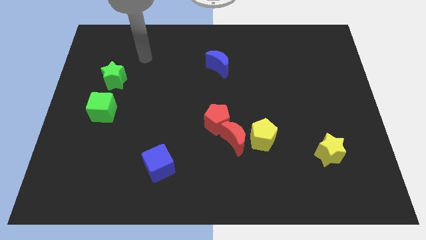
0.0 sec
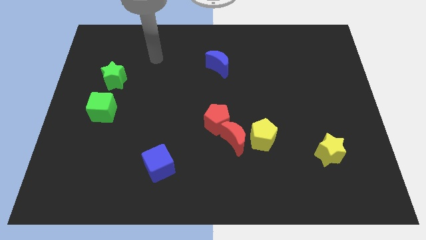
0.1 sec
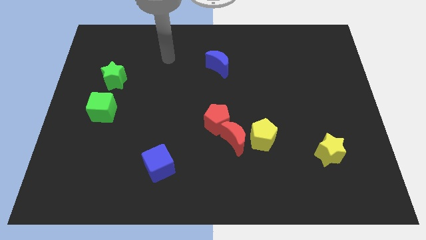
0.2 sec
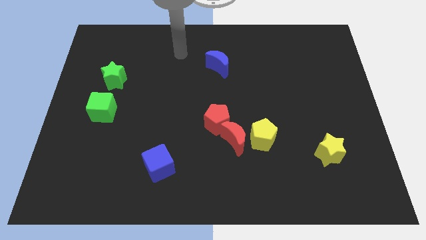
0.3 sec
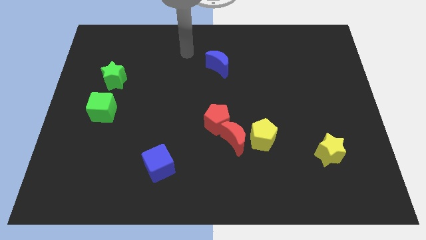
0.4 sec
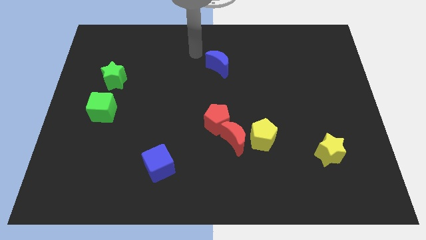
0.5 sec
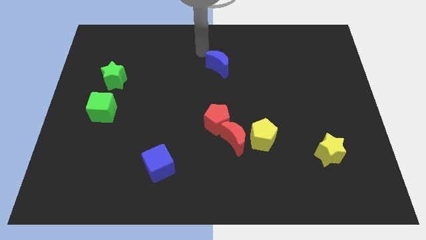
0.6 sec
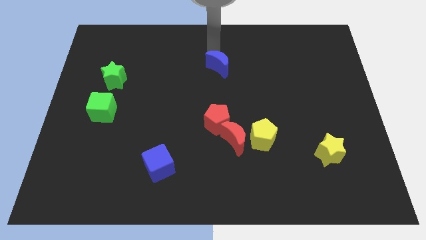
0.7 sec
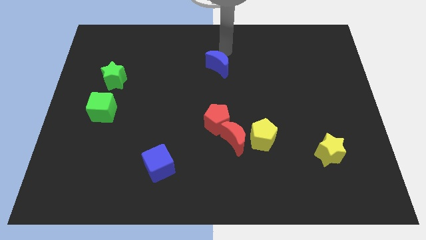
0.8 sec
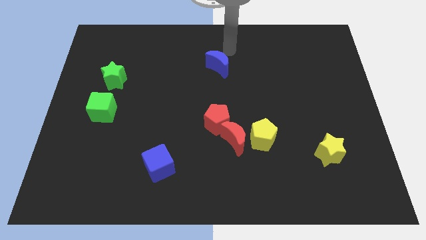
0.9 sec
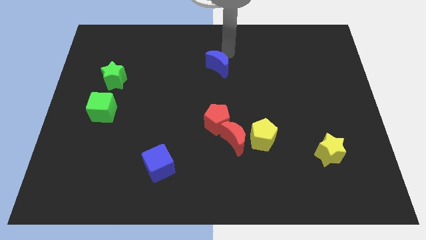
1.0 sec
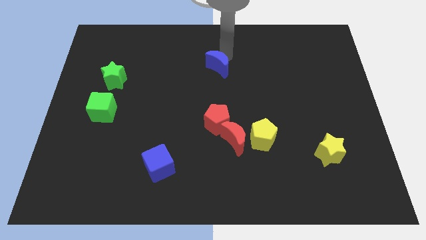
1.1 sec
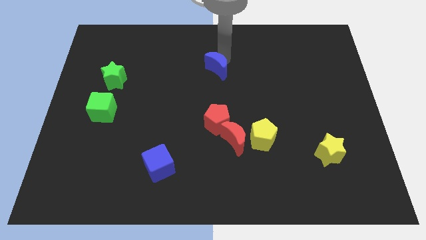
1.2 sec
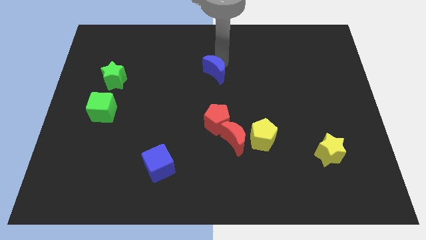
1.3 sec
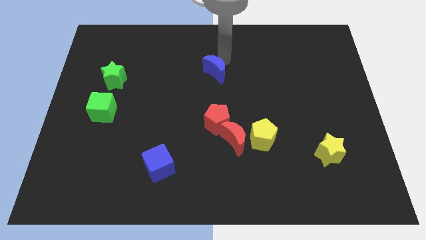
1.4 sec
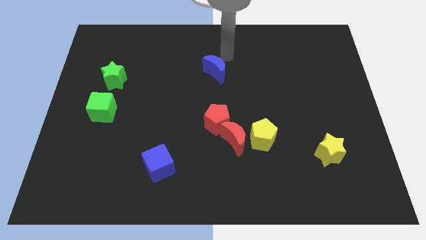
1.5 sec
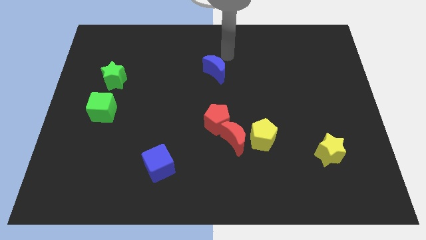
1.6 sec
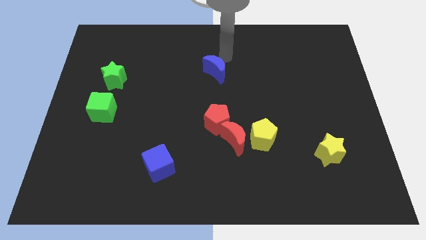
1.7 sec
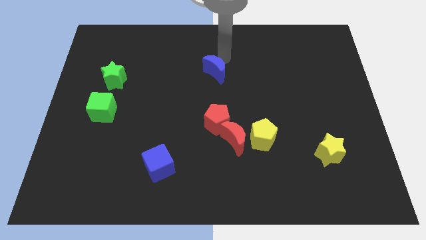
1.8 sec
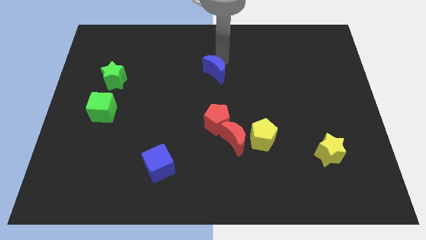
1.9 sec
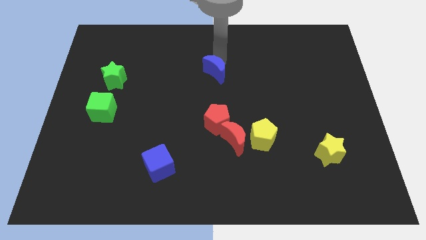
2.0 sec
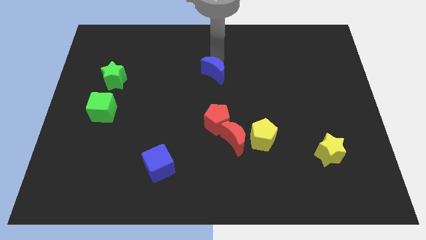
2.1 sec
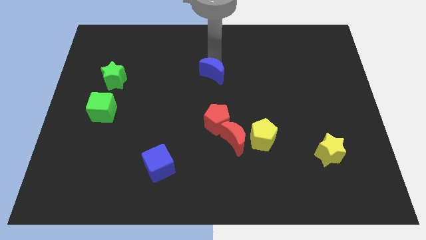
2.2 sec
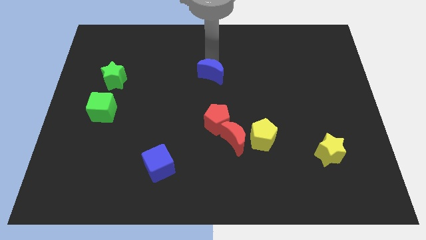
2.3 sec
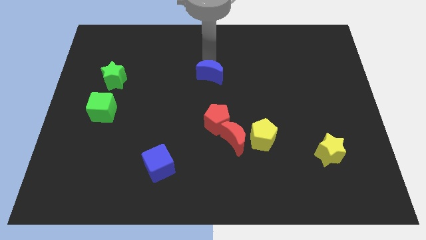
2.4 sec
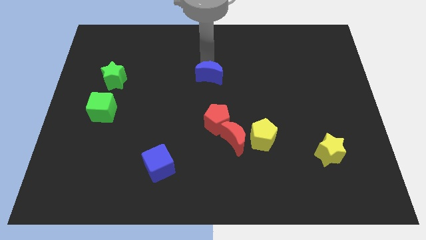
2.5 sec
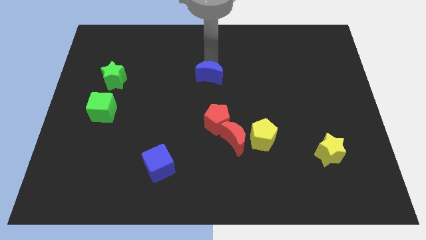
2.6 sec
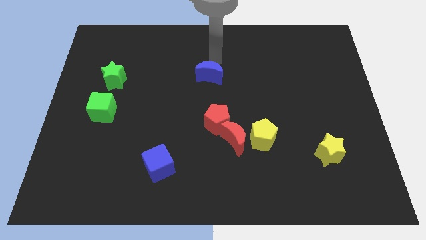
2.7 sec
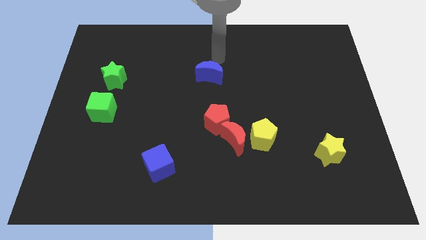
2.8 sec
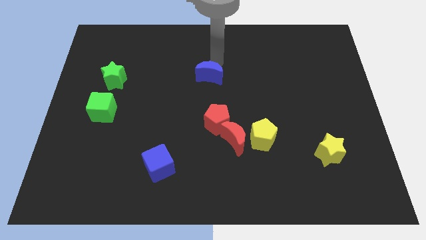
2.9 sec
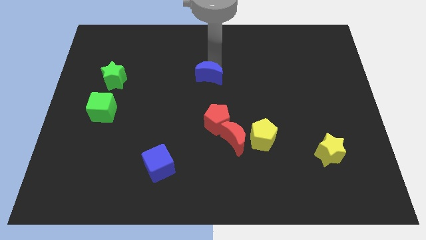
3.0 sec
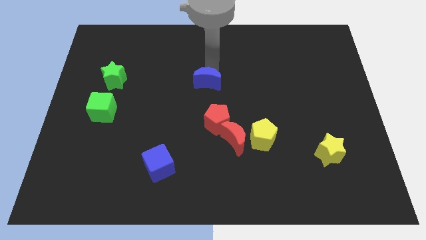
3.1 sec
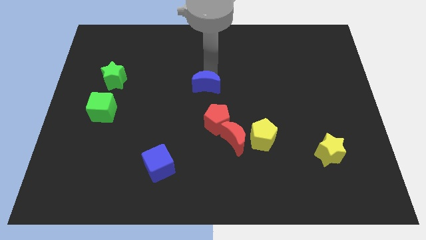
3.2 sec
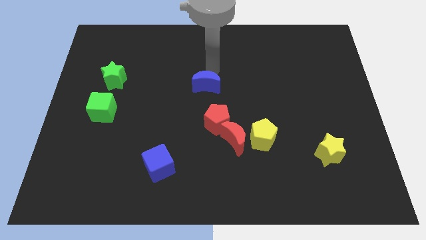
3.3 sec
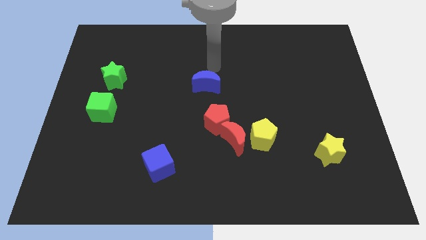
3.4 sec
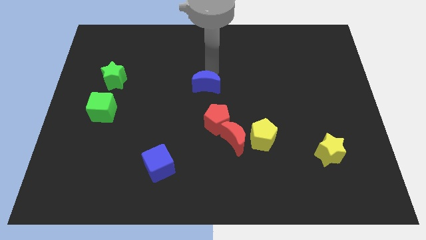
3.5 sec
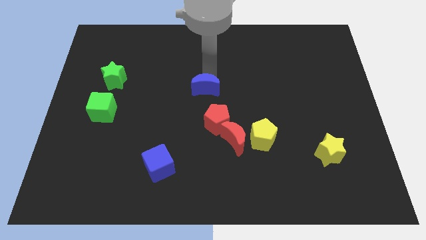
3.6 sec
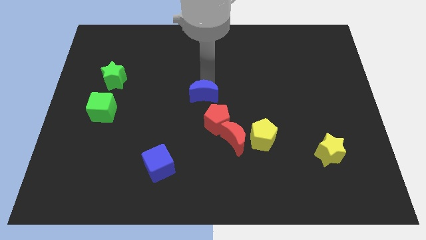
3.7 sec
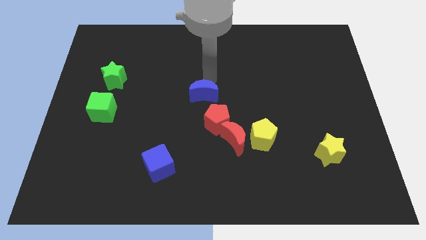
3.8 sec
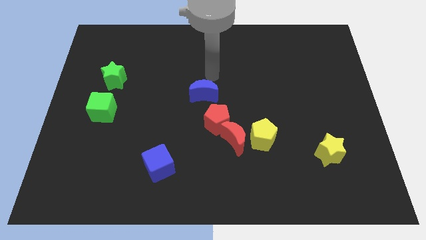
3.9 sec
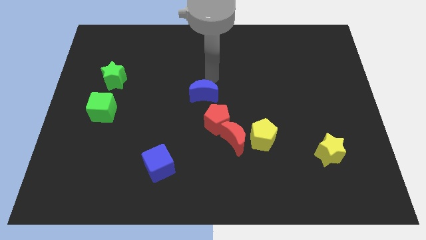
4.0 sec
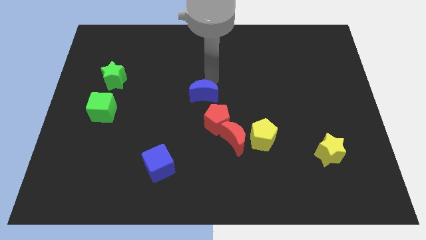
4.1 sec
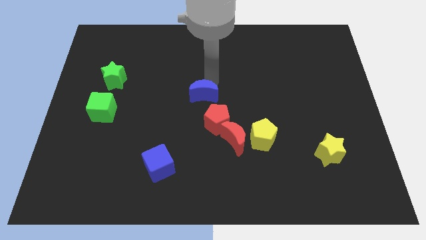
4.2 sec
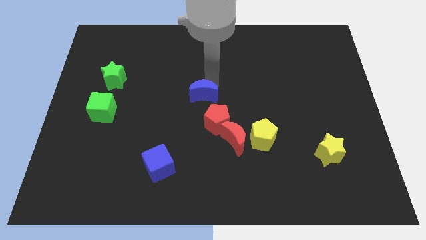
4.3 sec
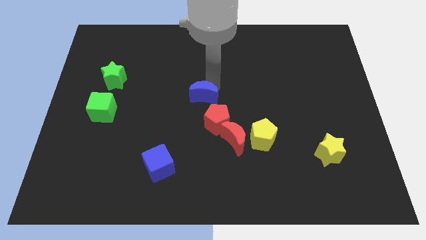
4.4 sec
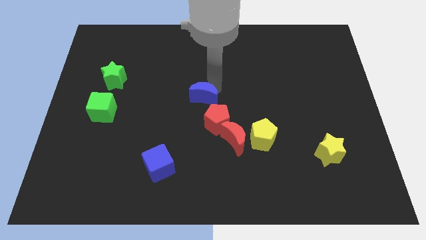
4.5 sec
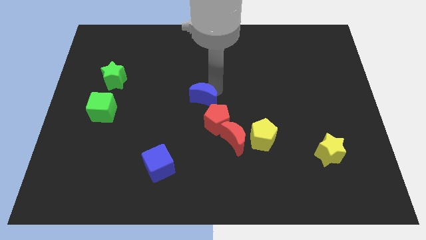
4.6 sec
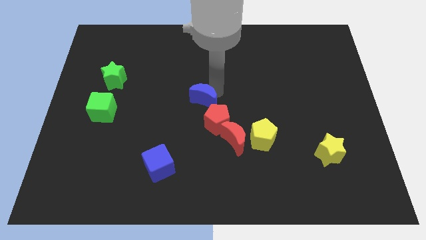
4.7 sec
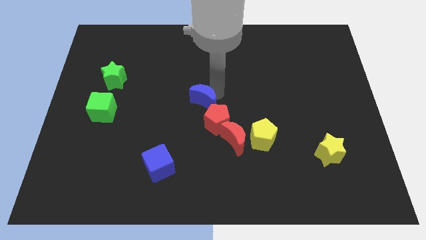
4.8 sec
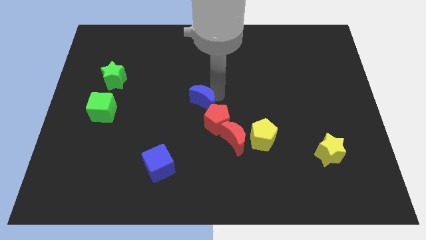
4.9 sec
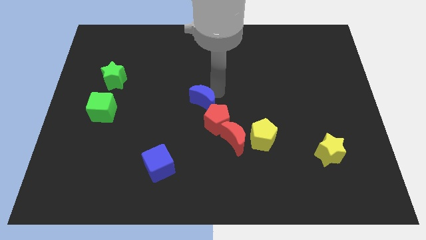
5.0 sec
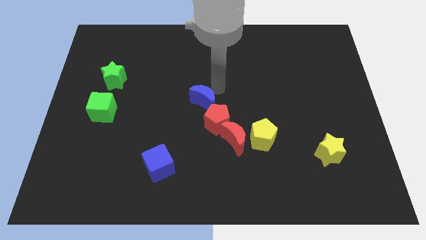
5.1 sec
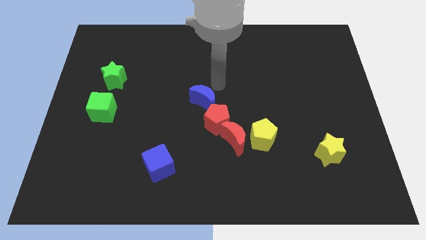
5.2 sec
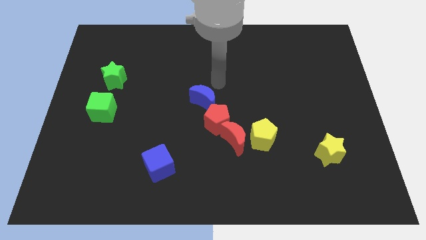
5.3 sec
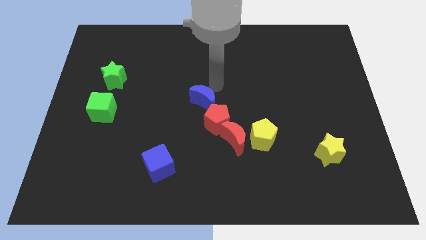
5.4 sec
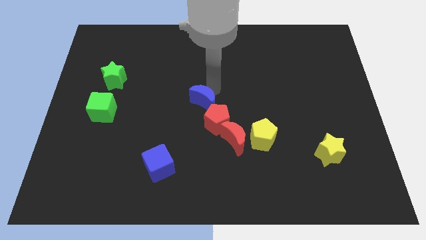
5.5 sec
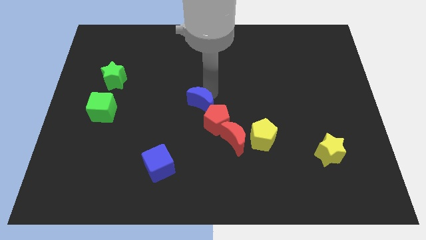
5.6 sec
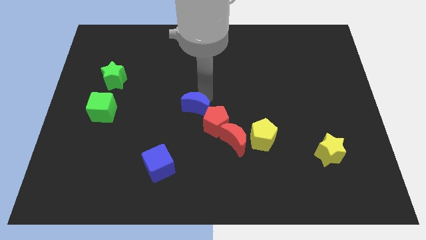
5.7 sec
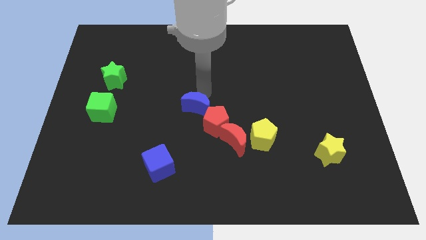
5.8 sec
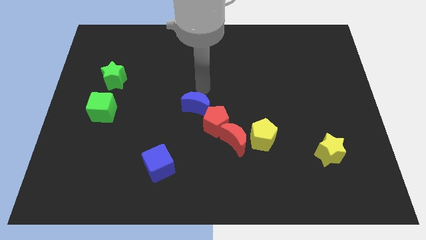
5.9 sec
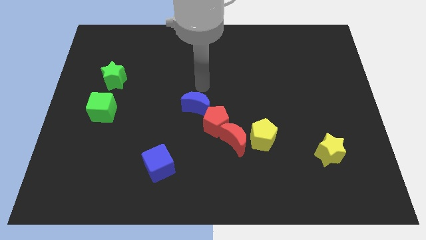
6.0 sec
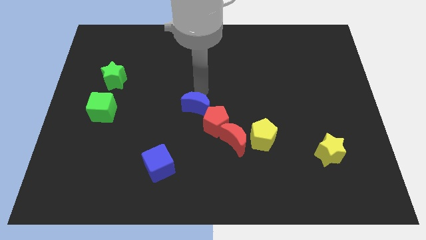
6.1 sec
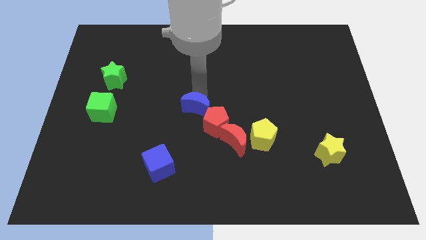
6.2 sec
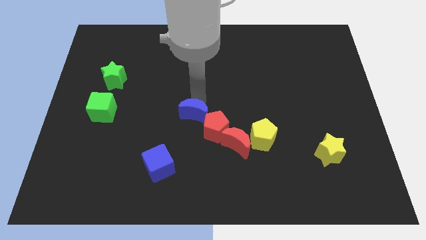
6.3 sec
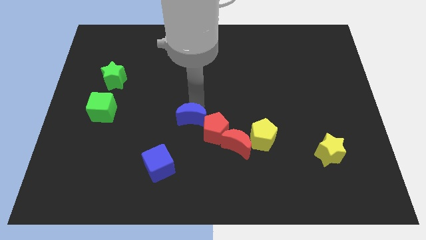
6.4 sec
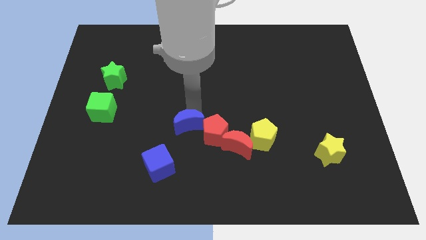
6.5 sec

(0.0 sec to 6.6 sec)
push the blue moon to the top right side of the blue cube
